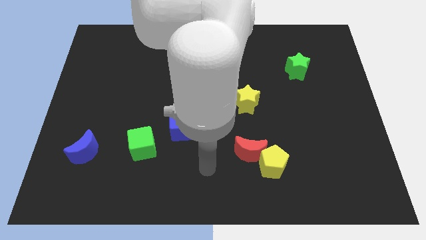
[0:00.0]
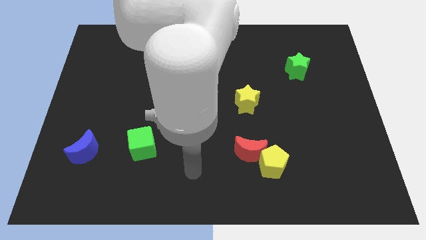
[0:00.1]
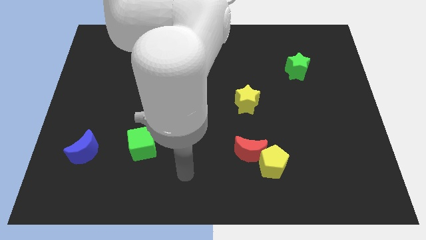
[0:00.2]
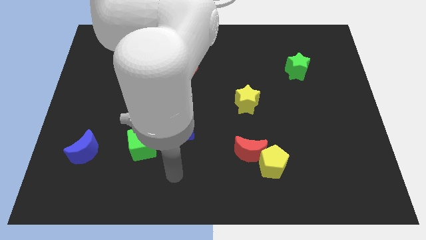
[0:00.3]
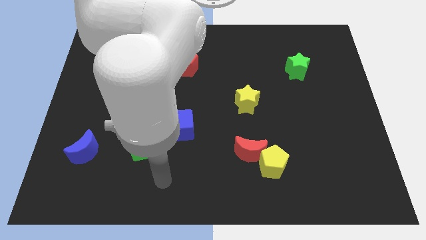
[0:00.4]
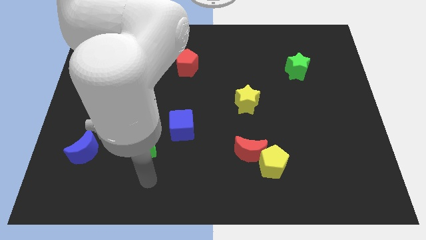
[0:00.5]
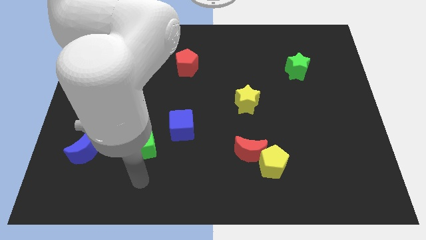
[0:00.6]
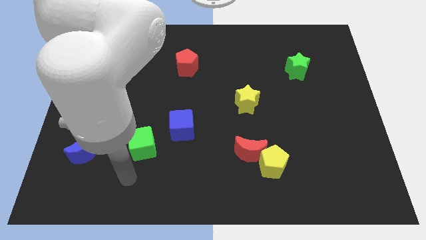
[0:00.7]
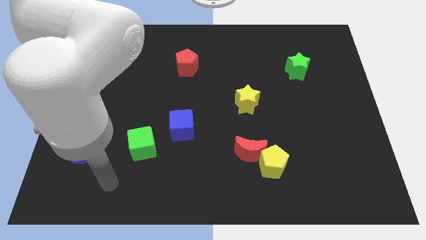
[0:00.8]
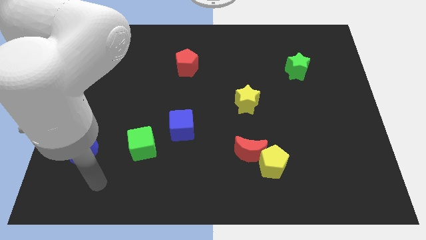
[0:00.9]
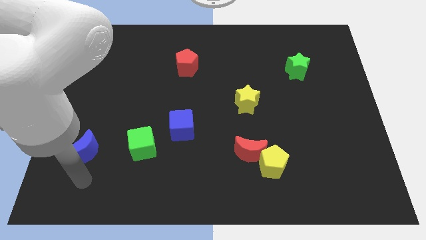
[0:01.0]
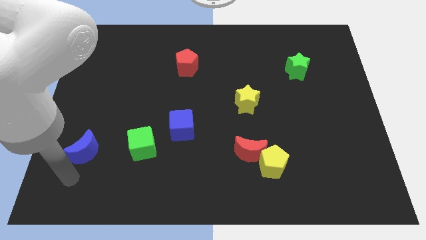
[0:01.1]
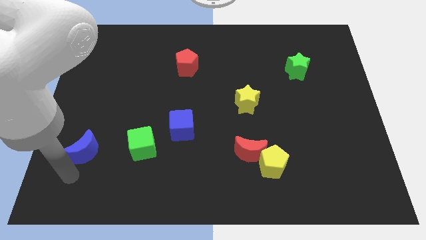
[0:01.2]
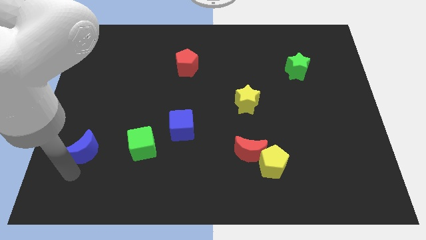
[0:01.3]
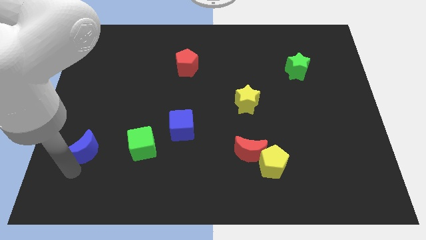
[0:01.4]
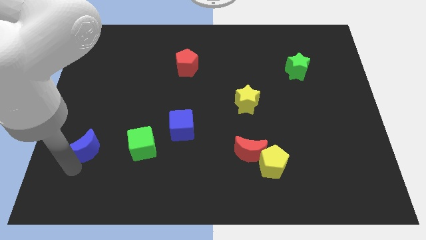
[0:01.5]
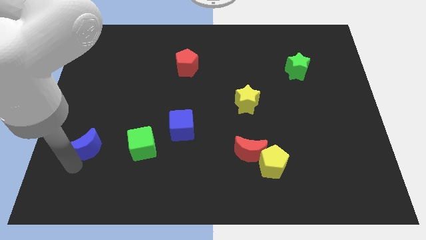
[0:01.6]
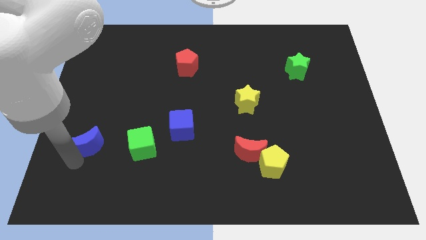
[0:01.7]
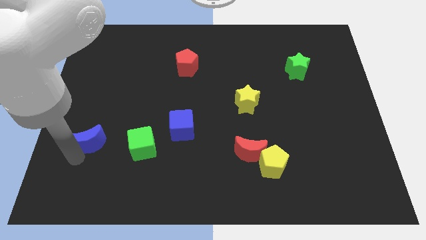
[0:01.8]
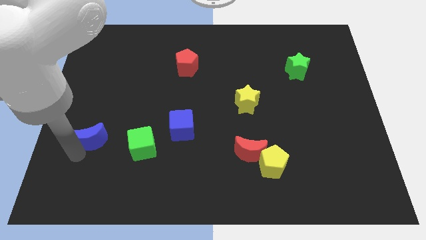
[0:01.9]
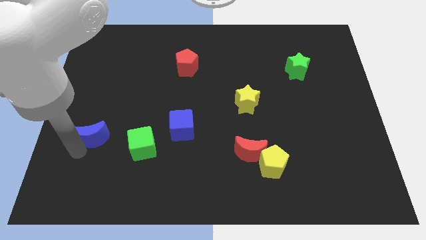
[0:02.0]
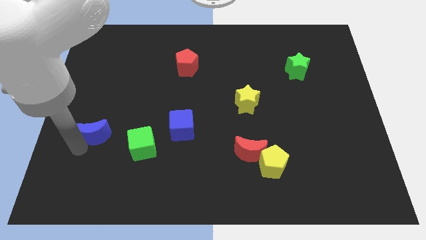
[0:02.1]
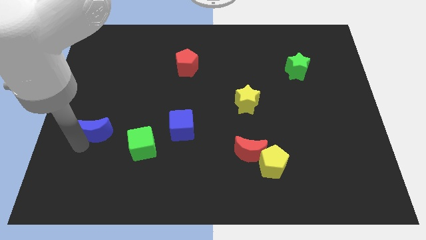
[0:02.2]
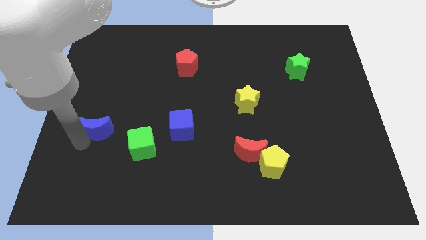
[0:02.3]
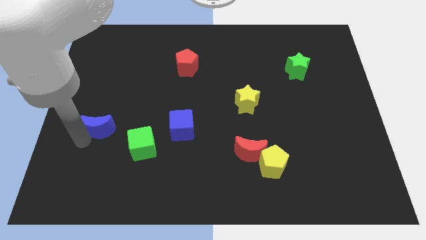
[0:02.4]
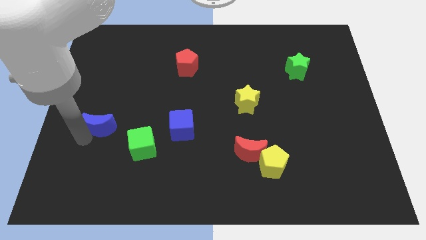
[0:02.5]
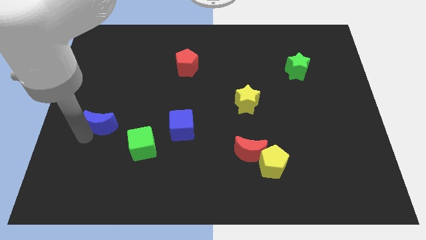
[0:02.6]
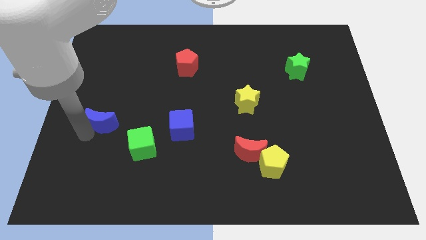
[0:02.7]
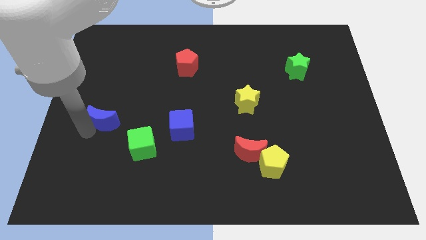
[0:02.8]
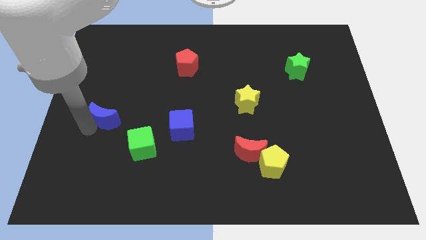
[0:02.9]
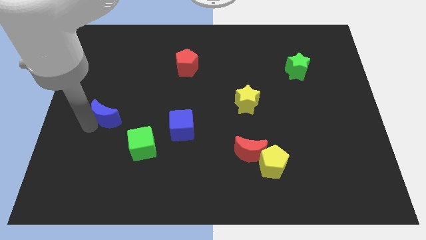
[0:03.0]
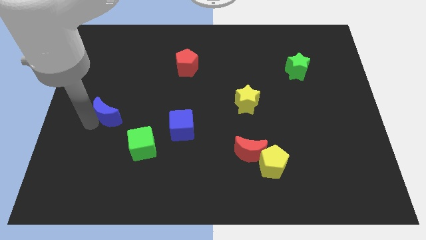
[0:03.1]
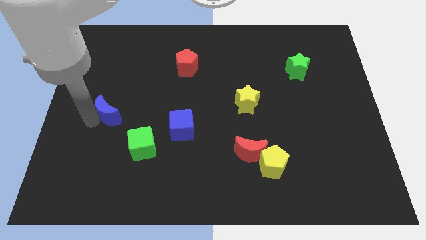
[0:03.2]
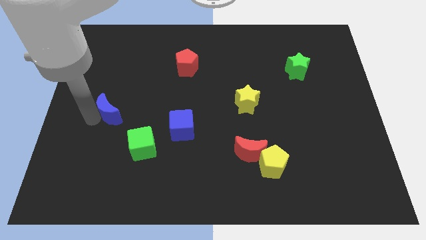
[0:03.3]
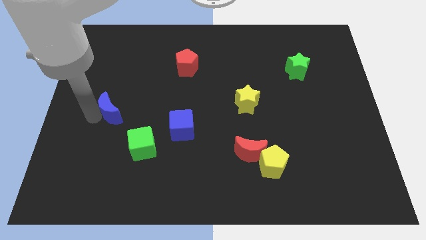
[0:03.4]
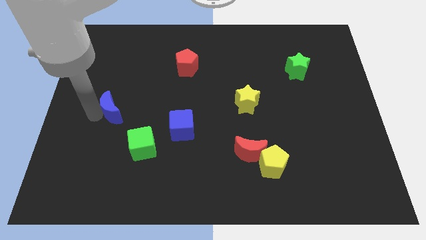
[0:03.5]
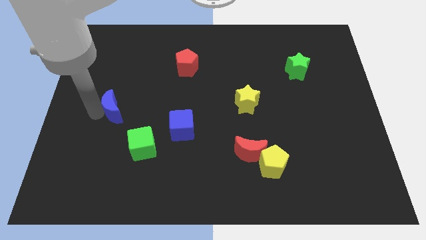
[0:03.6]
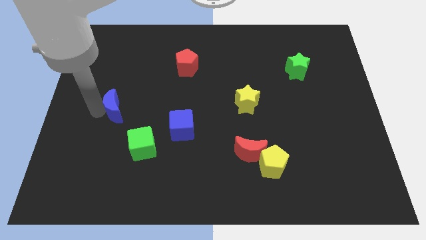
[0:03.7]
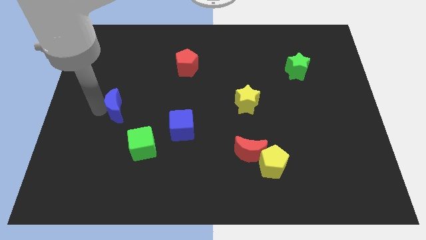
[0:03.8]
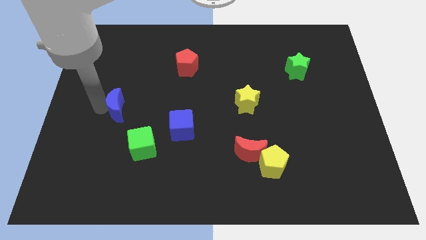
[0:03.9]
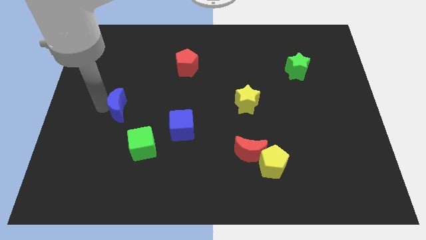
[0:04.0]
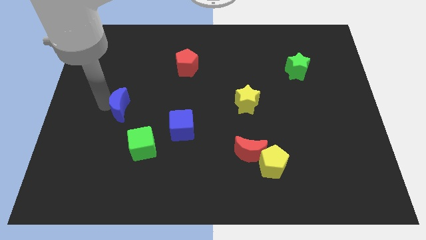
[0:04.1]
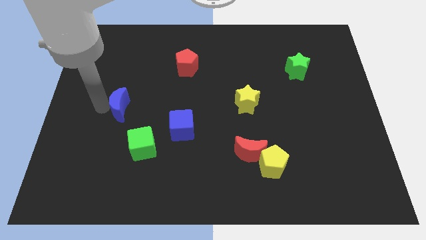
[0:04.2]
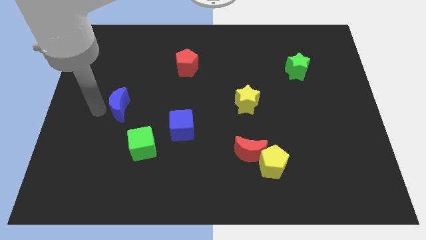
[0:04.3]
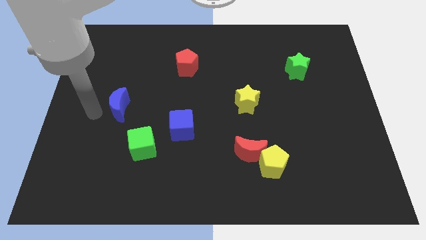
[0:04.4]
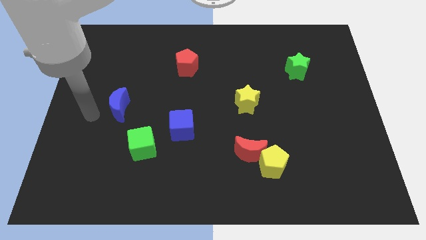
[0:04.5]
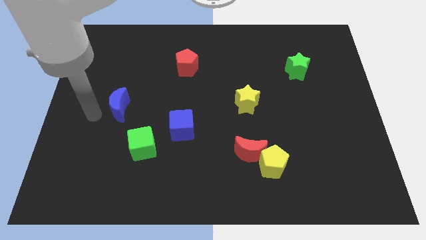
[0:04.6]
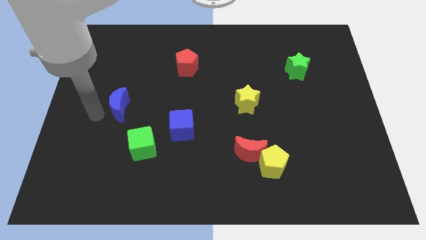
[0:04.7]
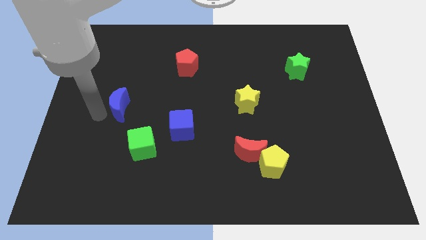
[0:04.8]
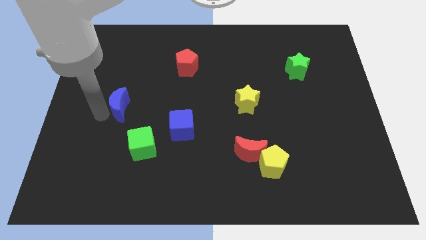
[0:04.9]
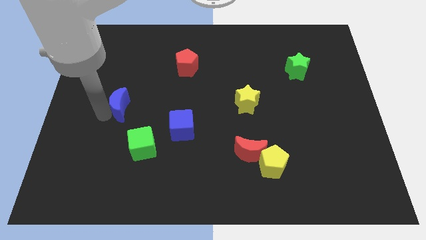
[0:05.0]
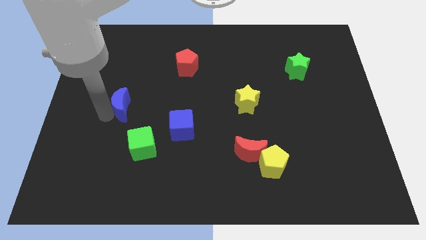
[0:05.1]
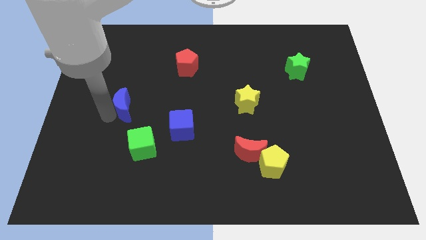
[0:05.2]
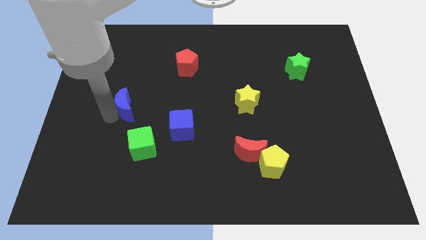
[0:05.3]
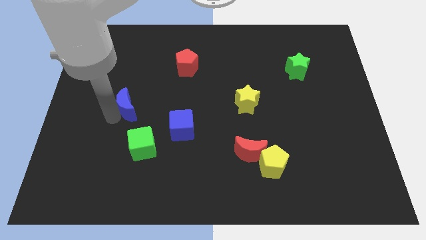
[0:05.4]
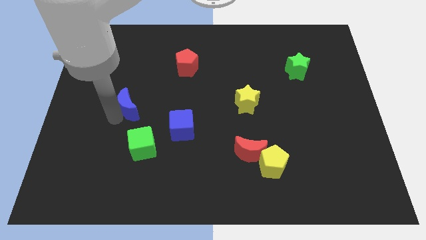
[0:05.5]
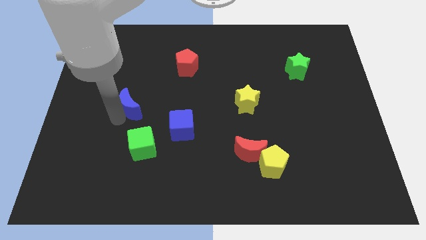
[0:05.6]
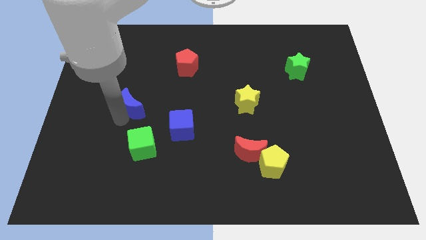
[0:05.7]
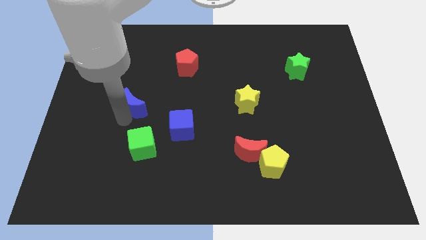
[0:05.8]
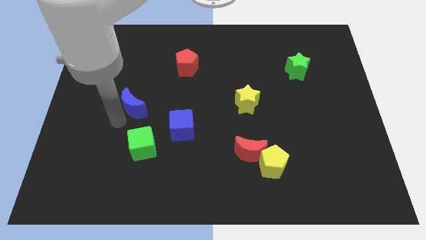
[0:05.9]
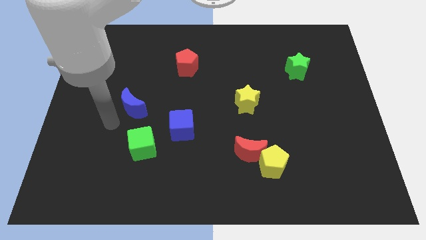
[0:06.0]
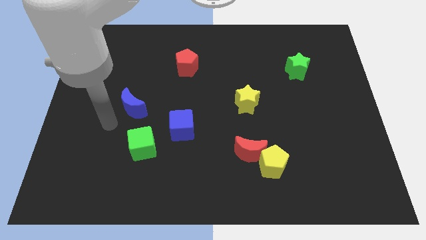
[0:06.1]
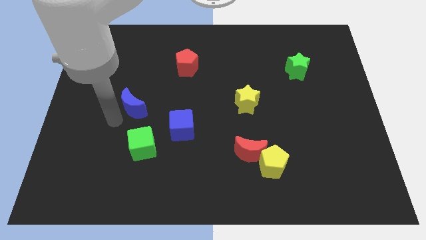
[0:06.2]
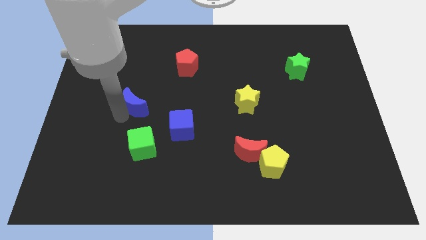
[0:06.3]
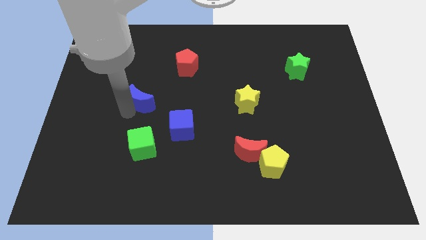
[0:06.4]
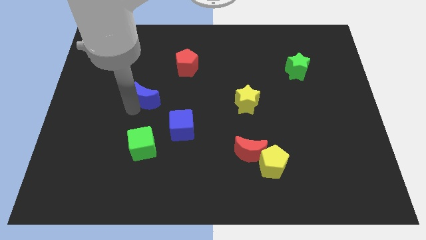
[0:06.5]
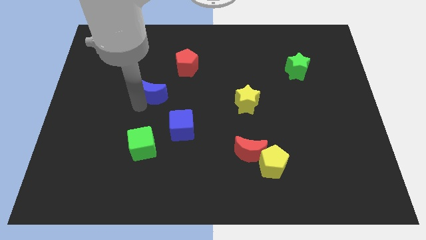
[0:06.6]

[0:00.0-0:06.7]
put the blue moon diagonally down and to the left of the red pentagon

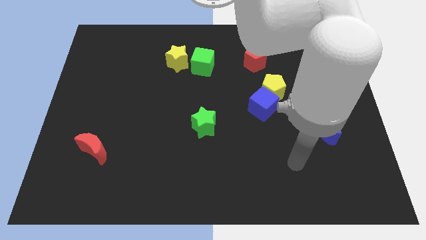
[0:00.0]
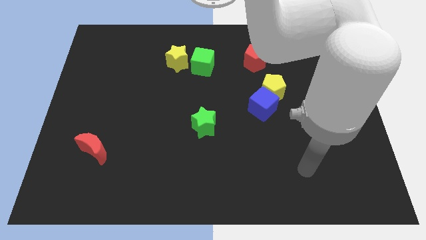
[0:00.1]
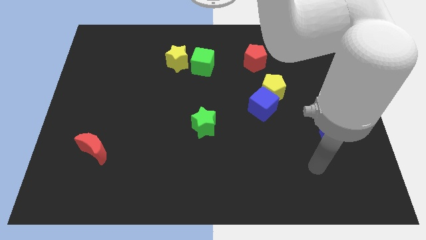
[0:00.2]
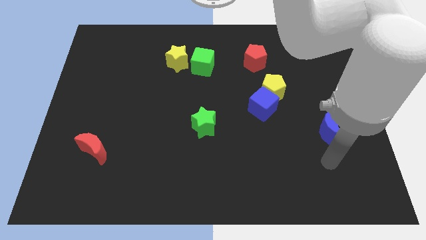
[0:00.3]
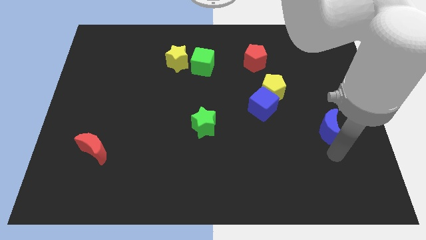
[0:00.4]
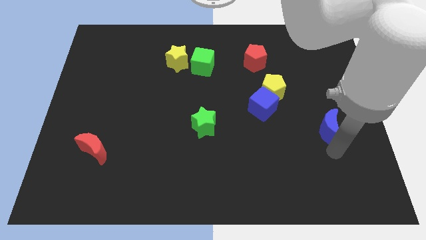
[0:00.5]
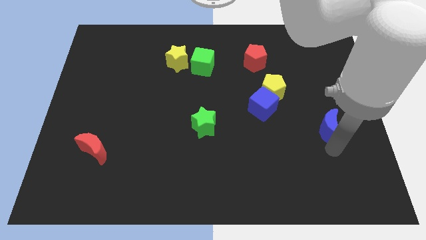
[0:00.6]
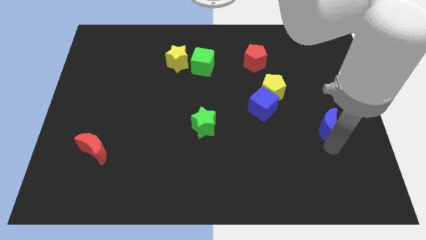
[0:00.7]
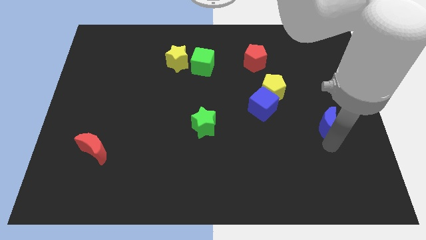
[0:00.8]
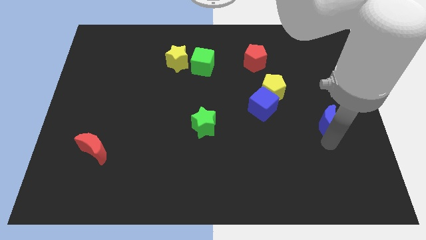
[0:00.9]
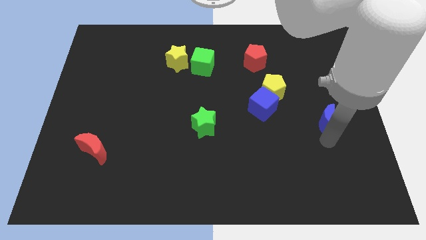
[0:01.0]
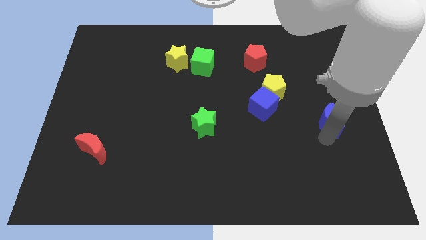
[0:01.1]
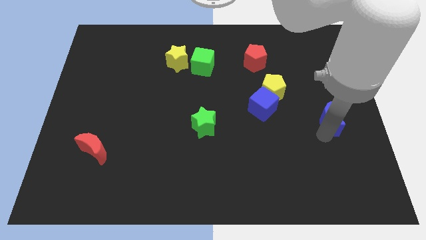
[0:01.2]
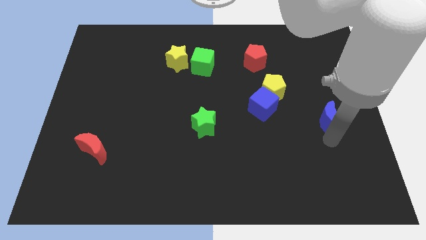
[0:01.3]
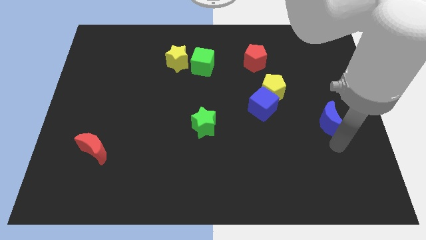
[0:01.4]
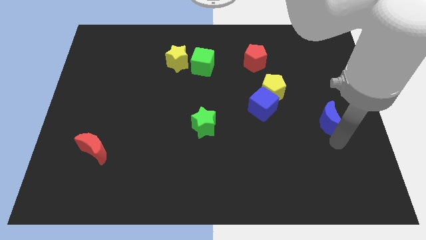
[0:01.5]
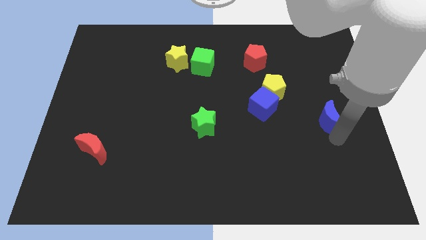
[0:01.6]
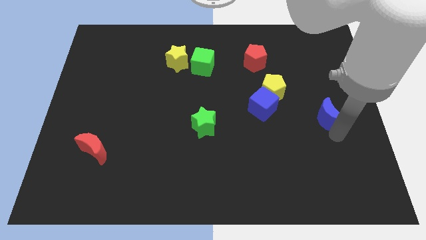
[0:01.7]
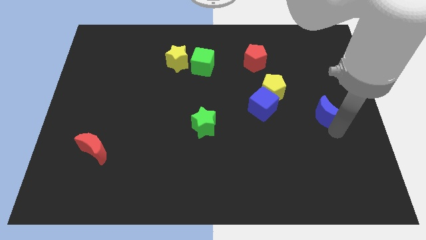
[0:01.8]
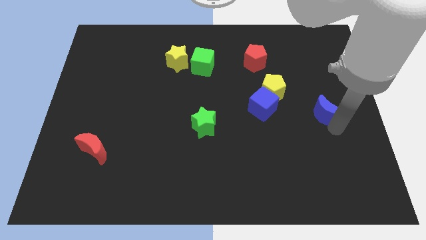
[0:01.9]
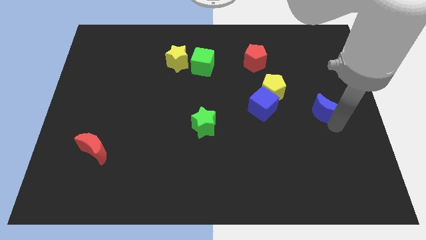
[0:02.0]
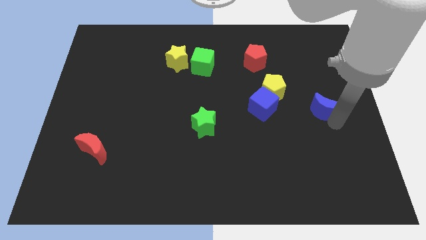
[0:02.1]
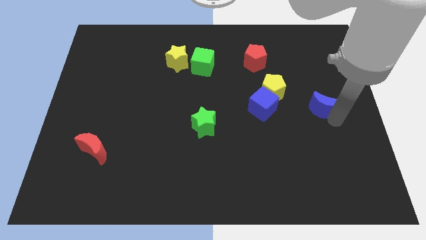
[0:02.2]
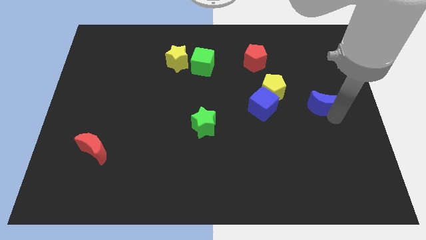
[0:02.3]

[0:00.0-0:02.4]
move the blue moon to the right of the yellow pentagon
